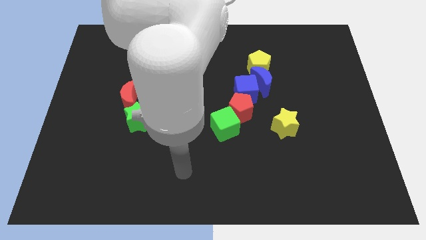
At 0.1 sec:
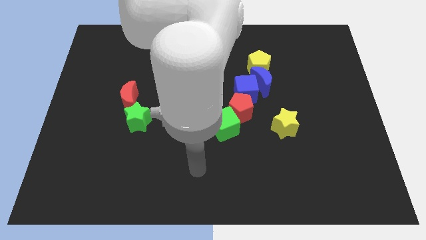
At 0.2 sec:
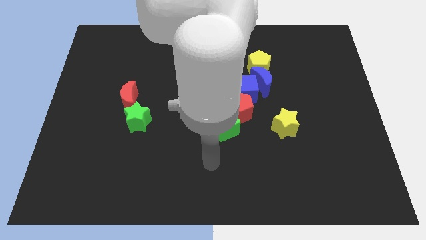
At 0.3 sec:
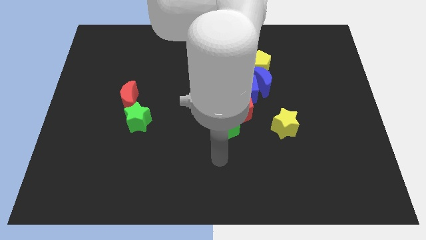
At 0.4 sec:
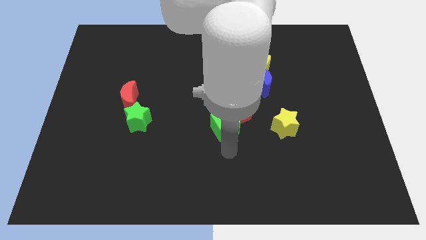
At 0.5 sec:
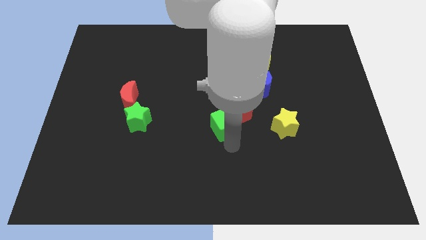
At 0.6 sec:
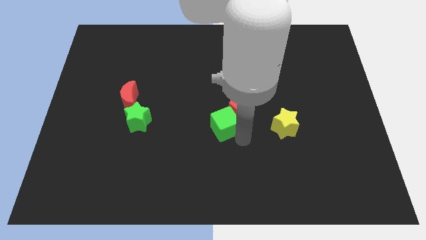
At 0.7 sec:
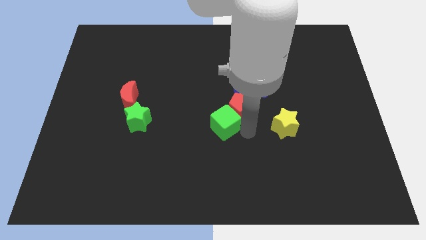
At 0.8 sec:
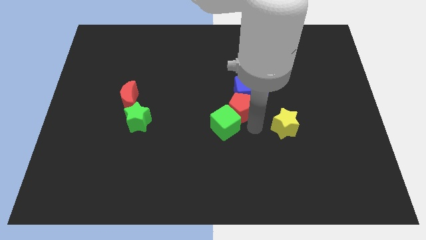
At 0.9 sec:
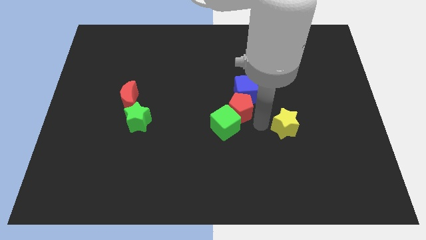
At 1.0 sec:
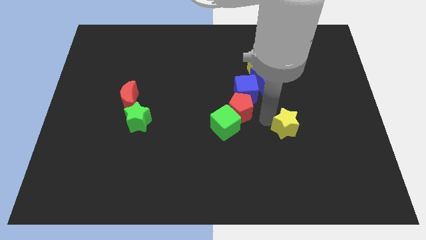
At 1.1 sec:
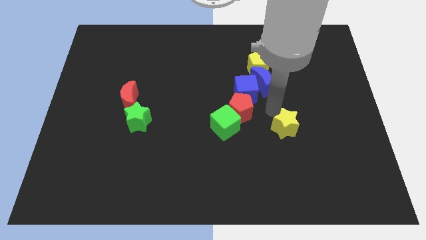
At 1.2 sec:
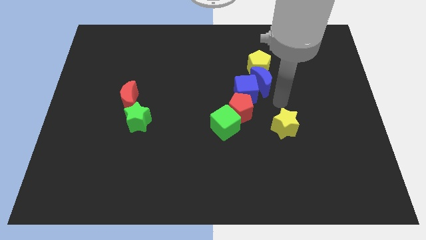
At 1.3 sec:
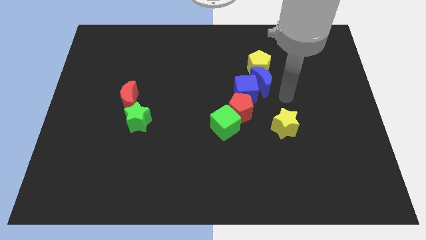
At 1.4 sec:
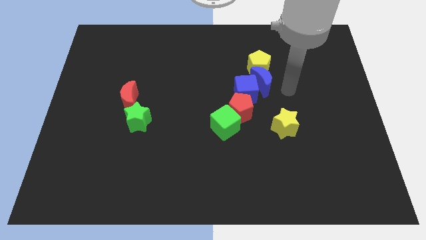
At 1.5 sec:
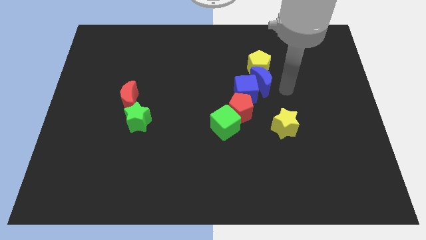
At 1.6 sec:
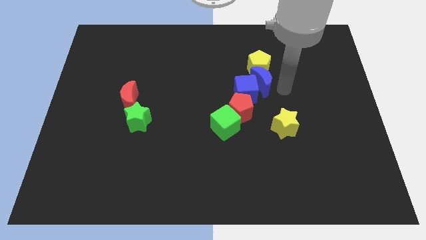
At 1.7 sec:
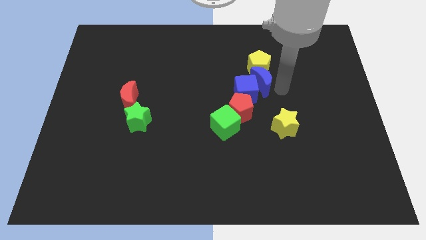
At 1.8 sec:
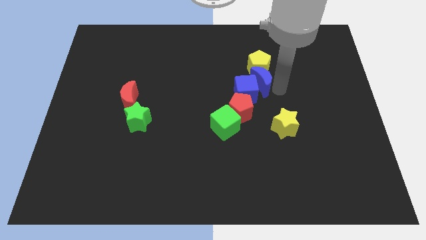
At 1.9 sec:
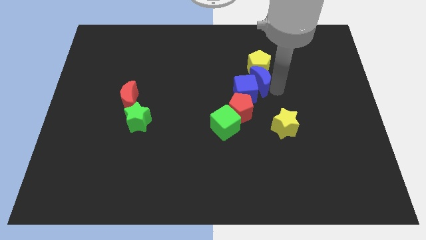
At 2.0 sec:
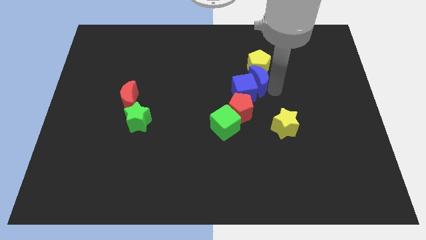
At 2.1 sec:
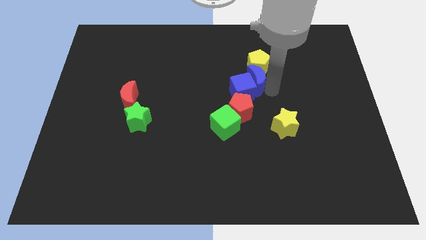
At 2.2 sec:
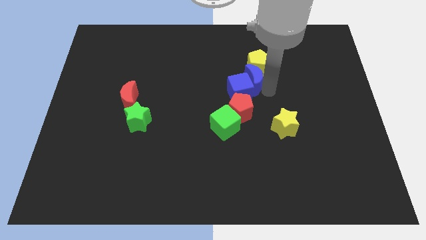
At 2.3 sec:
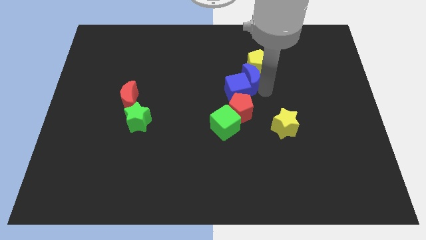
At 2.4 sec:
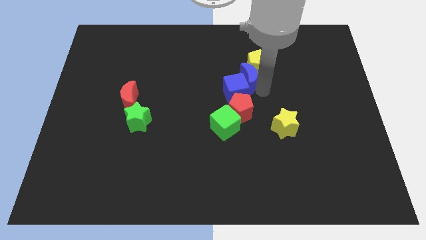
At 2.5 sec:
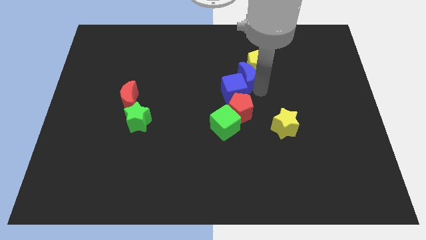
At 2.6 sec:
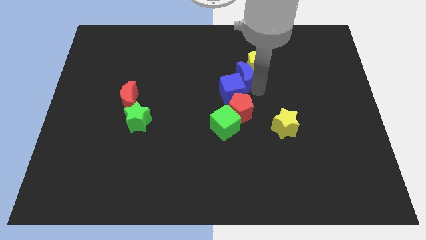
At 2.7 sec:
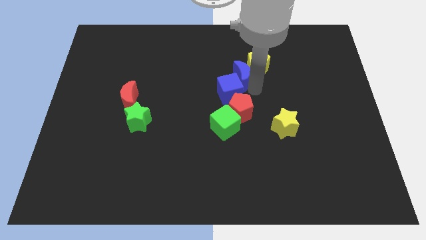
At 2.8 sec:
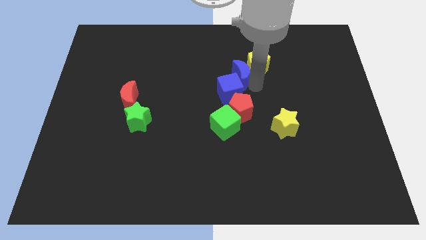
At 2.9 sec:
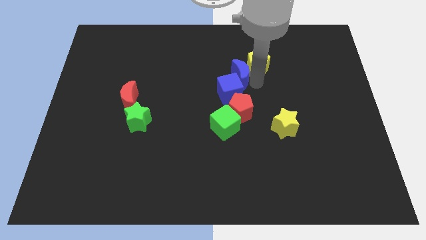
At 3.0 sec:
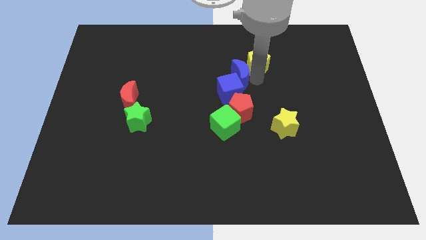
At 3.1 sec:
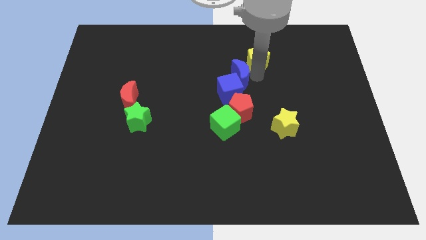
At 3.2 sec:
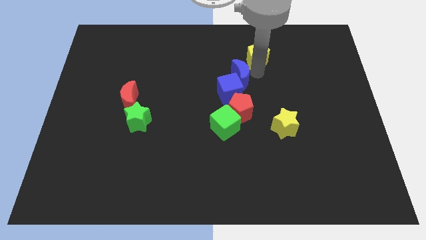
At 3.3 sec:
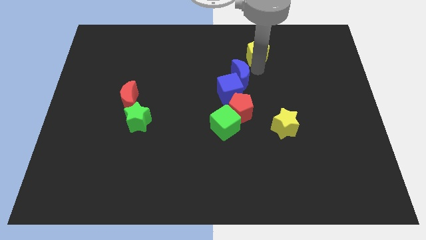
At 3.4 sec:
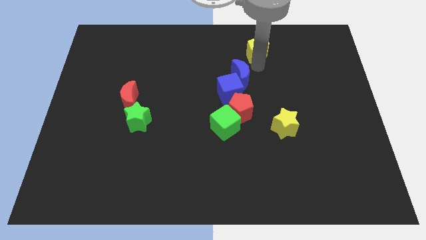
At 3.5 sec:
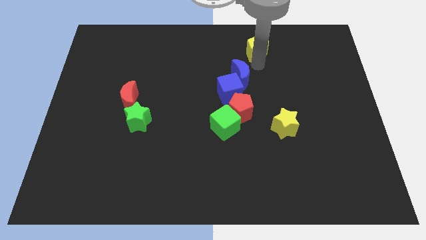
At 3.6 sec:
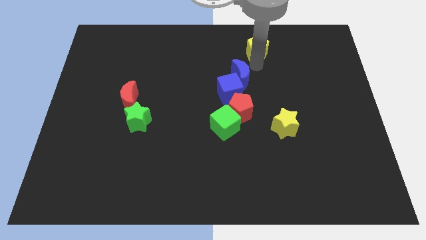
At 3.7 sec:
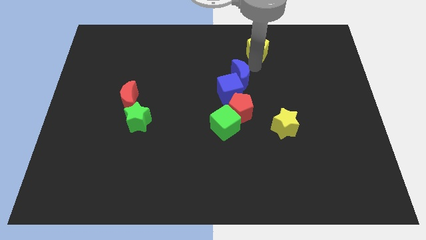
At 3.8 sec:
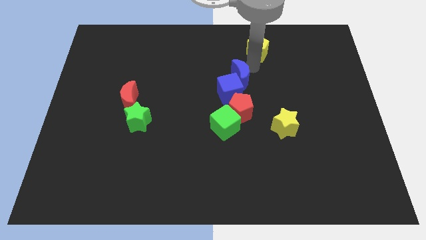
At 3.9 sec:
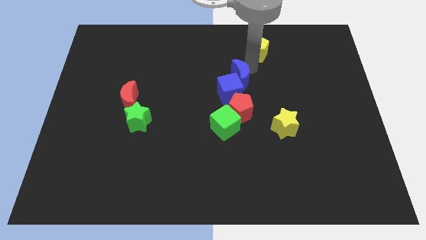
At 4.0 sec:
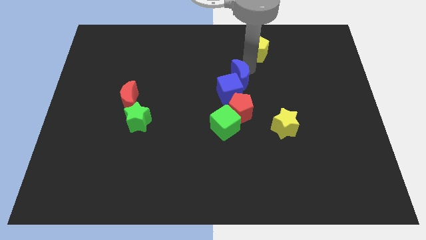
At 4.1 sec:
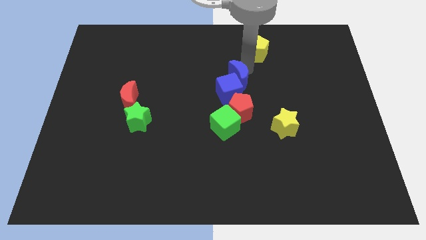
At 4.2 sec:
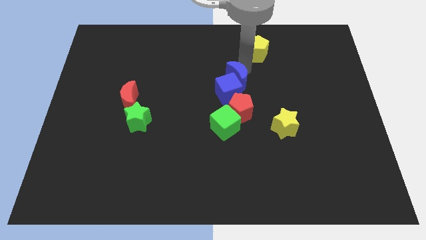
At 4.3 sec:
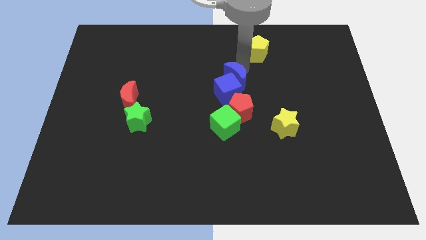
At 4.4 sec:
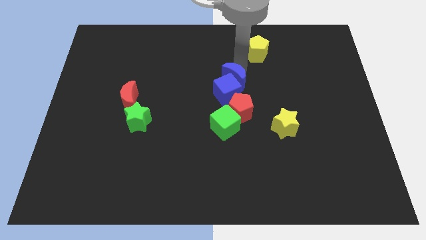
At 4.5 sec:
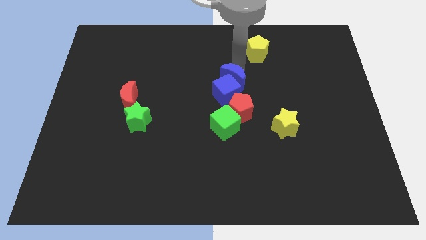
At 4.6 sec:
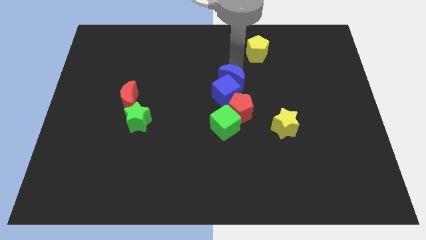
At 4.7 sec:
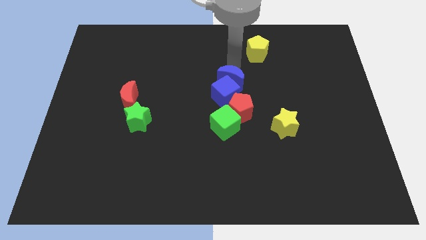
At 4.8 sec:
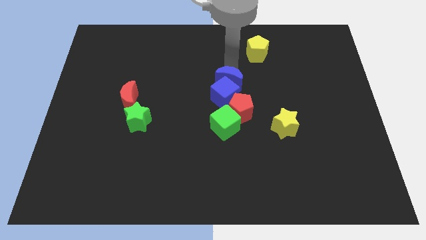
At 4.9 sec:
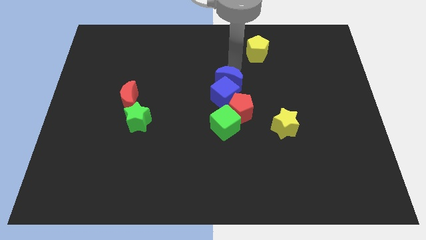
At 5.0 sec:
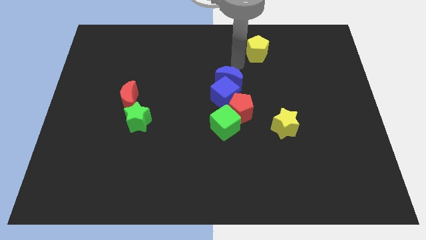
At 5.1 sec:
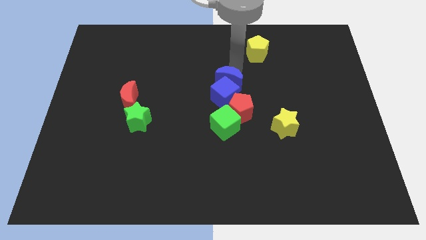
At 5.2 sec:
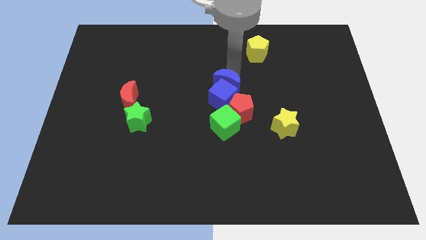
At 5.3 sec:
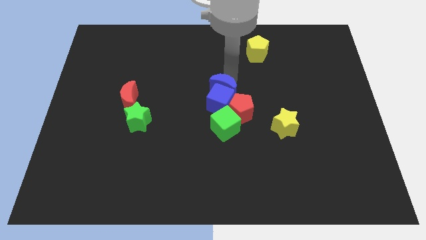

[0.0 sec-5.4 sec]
push the blue moon down and left diagonally somewhat

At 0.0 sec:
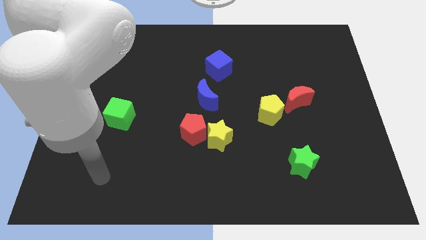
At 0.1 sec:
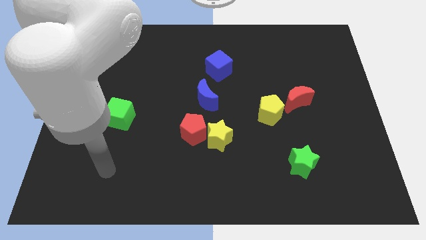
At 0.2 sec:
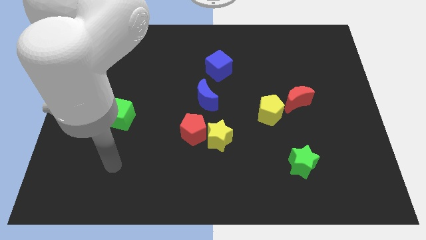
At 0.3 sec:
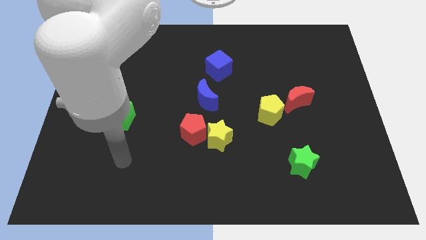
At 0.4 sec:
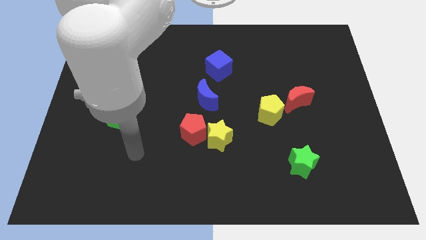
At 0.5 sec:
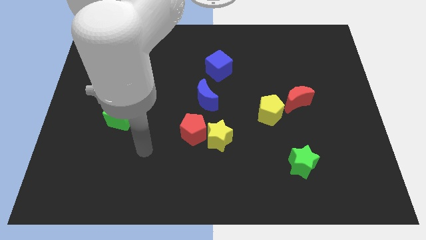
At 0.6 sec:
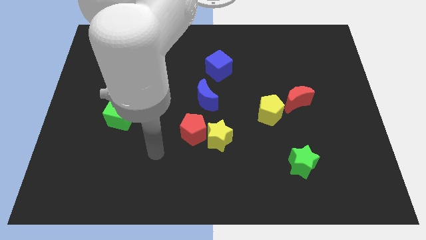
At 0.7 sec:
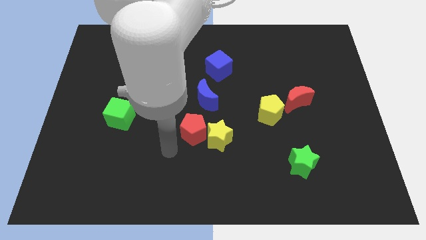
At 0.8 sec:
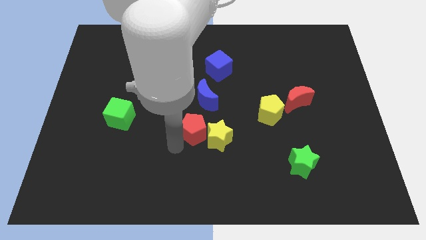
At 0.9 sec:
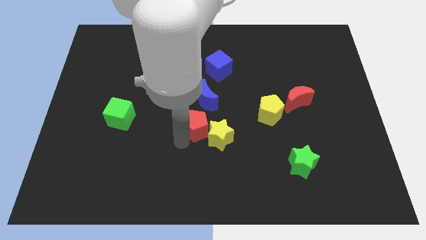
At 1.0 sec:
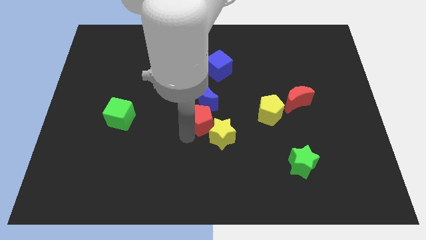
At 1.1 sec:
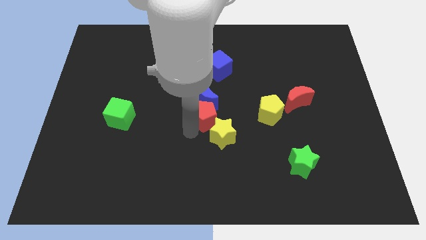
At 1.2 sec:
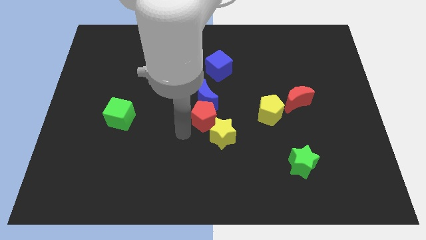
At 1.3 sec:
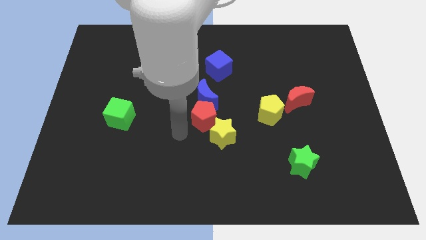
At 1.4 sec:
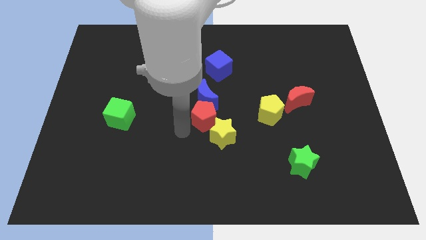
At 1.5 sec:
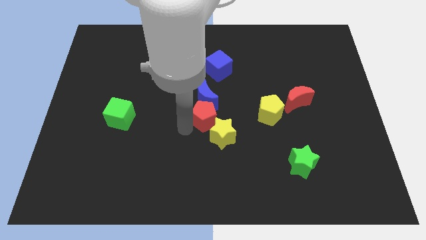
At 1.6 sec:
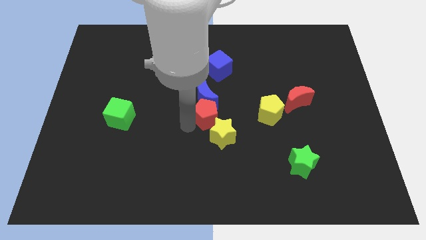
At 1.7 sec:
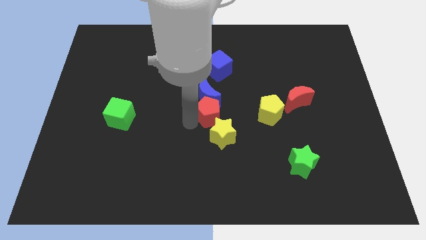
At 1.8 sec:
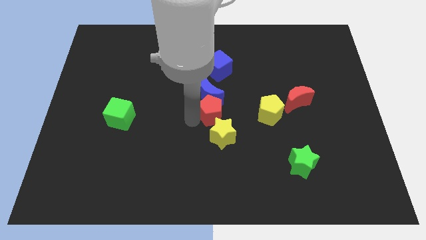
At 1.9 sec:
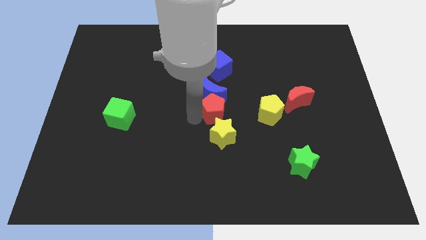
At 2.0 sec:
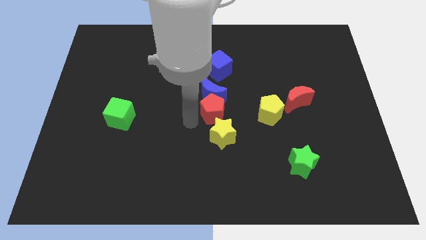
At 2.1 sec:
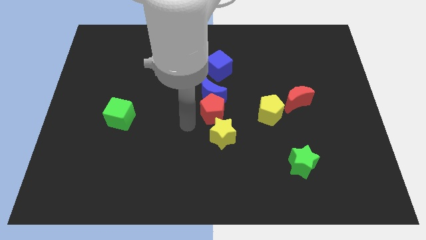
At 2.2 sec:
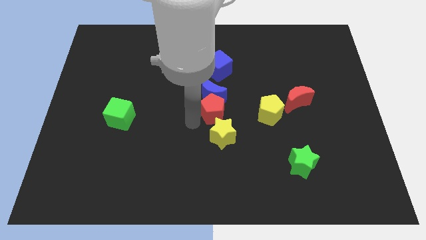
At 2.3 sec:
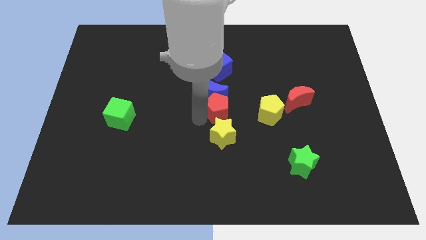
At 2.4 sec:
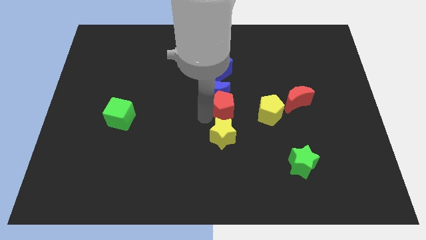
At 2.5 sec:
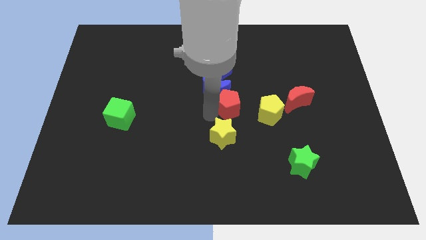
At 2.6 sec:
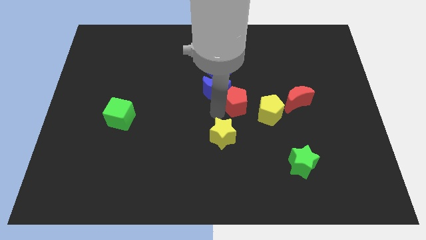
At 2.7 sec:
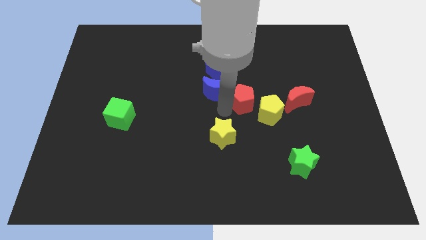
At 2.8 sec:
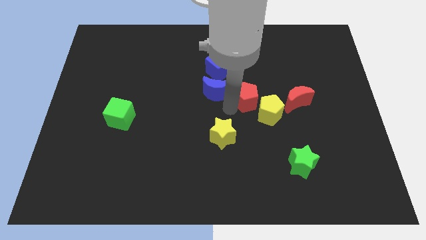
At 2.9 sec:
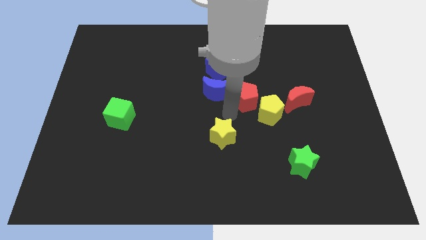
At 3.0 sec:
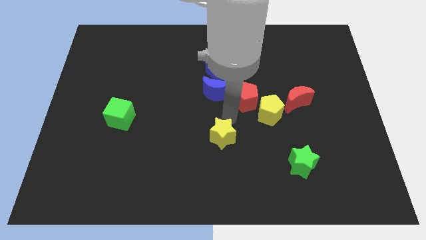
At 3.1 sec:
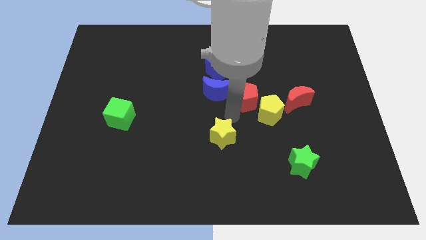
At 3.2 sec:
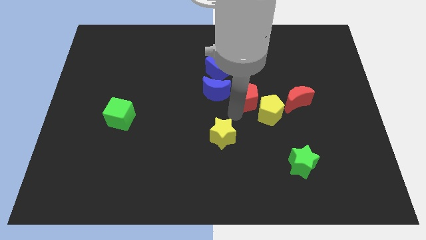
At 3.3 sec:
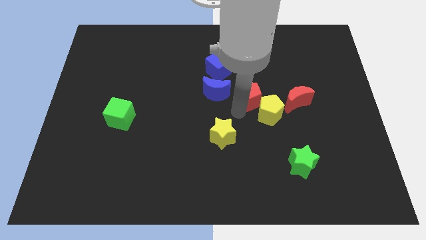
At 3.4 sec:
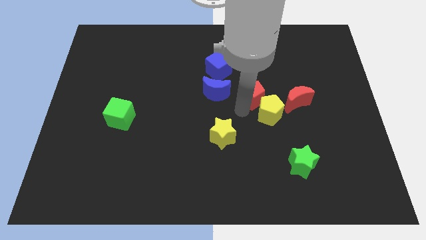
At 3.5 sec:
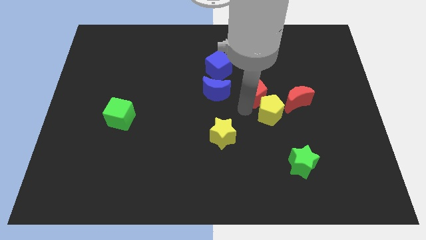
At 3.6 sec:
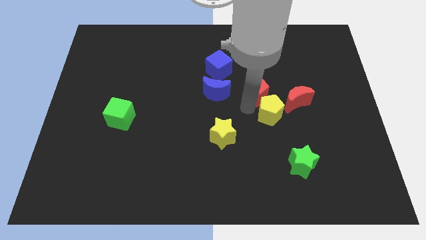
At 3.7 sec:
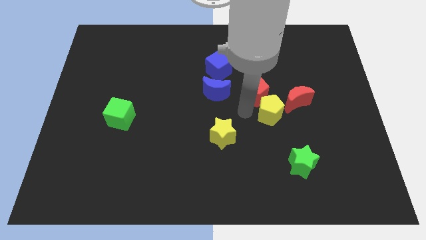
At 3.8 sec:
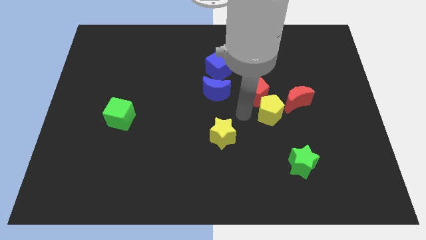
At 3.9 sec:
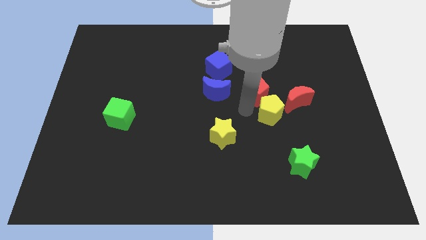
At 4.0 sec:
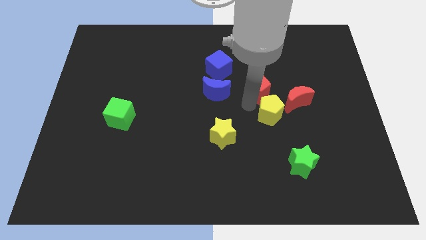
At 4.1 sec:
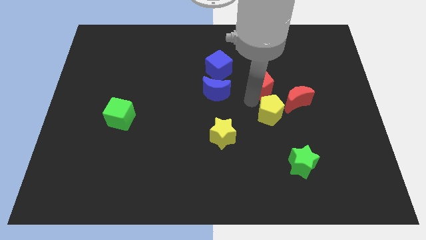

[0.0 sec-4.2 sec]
move the red pentagon diagonally upwards and to the right
